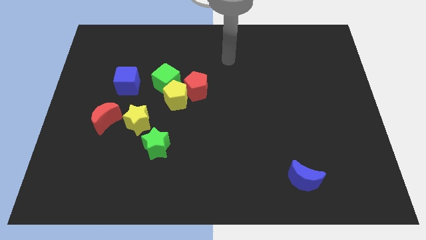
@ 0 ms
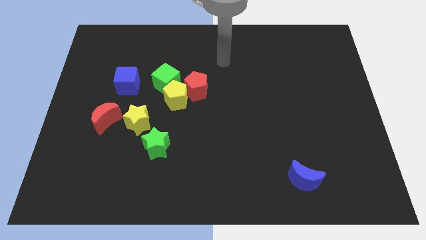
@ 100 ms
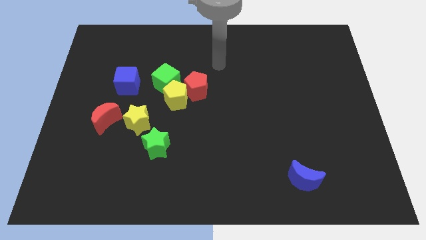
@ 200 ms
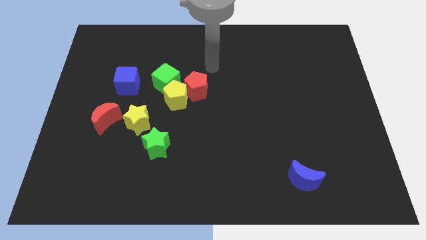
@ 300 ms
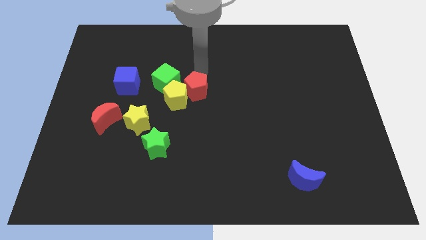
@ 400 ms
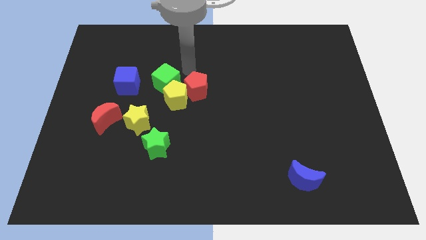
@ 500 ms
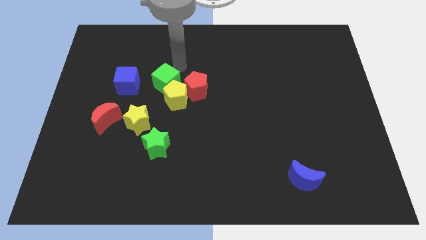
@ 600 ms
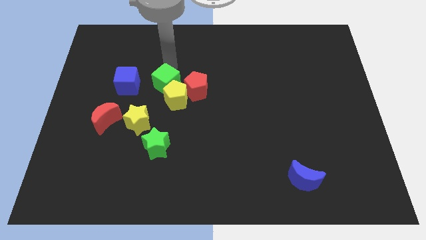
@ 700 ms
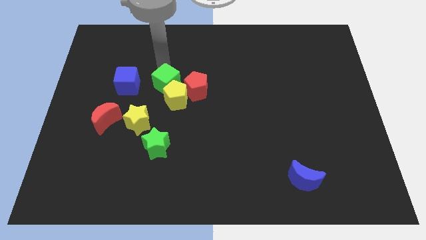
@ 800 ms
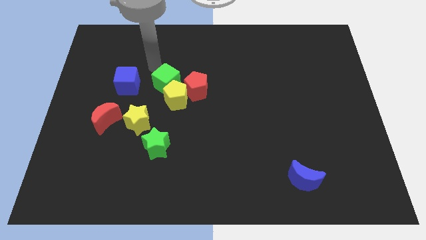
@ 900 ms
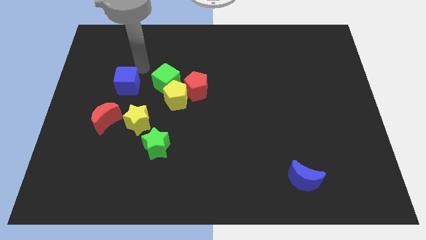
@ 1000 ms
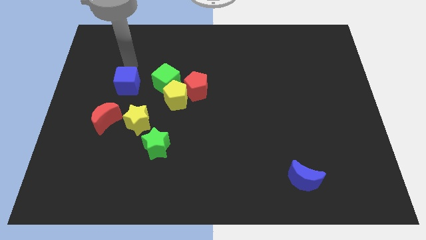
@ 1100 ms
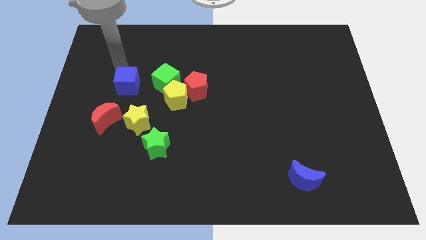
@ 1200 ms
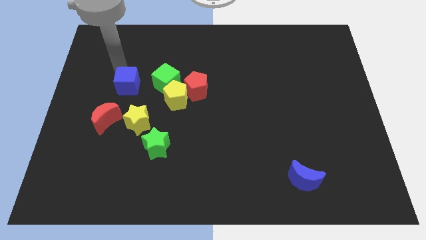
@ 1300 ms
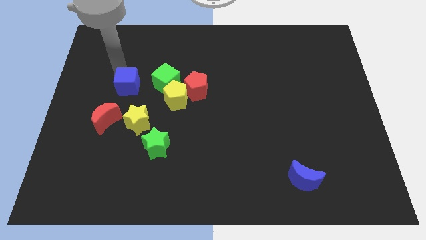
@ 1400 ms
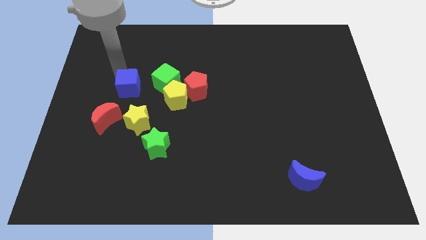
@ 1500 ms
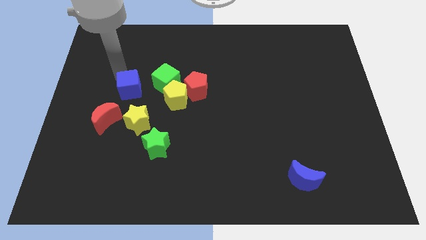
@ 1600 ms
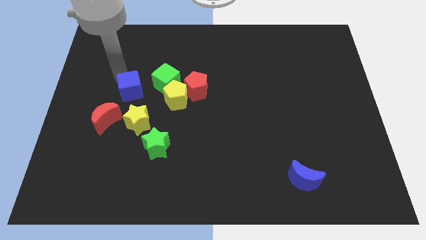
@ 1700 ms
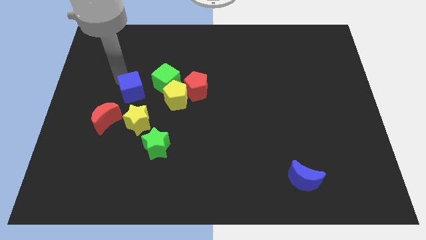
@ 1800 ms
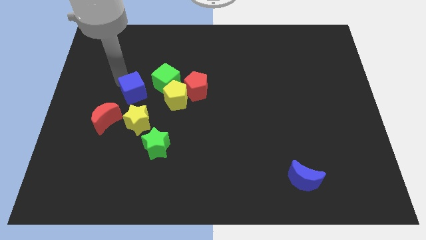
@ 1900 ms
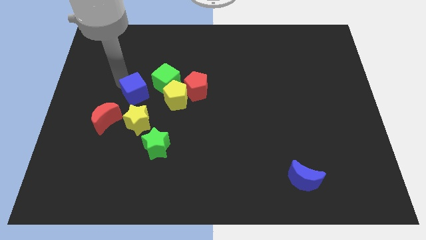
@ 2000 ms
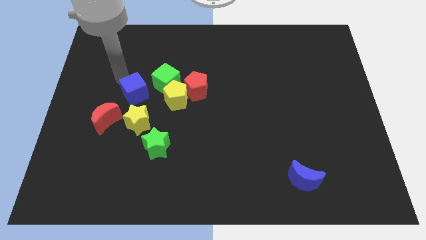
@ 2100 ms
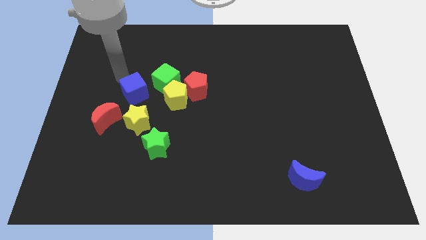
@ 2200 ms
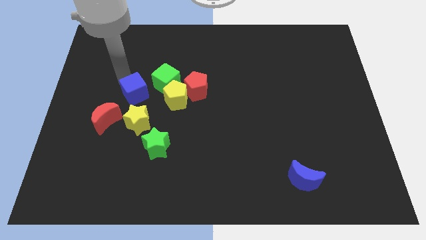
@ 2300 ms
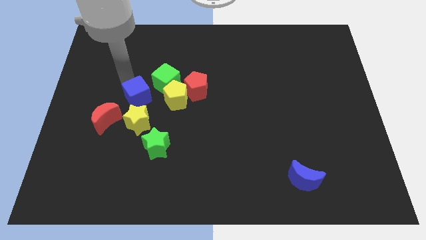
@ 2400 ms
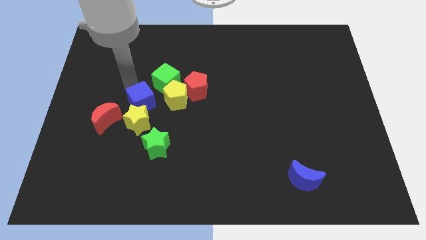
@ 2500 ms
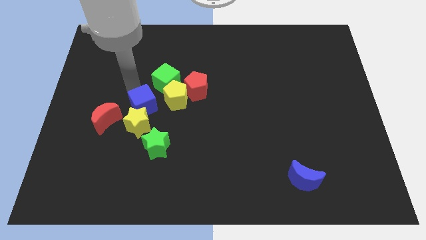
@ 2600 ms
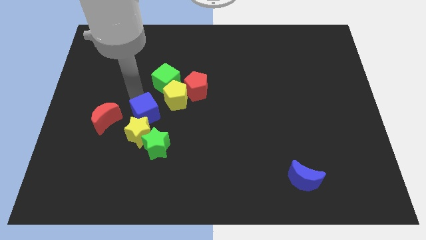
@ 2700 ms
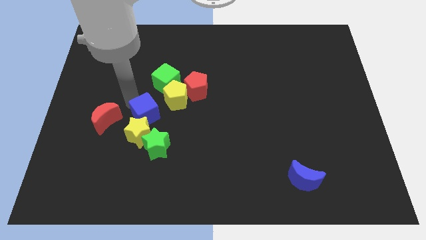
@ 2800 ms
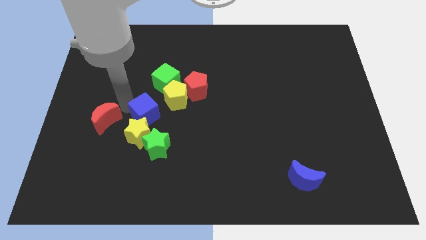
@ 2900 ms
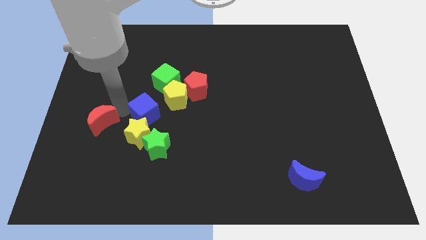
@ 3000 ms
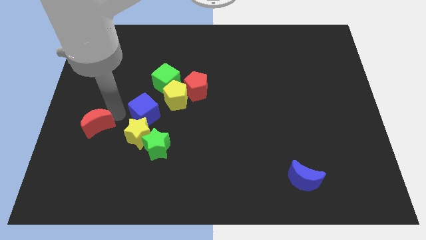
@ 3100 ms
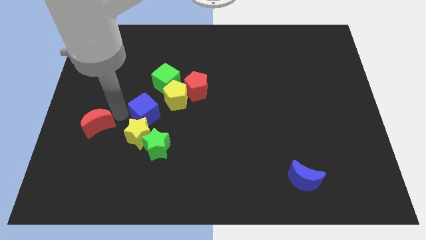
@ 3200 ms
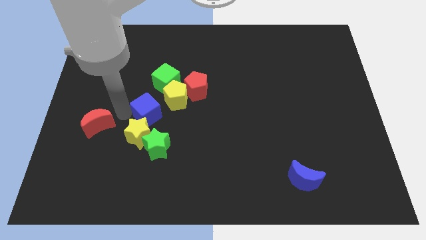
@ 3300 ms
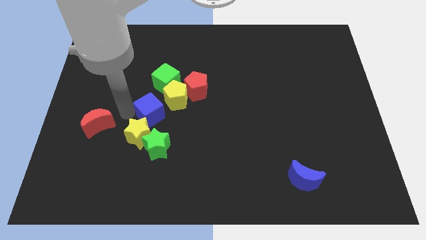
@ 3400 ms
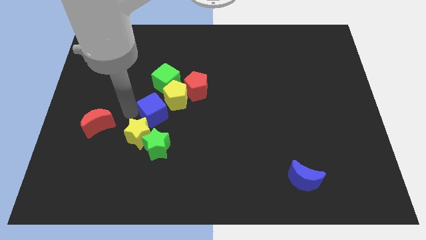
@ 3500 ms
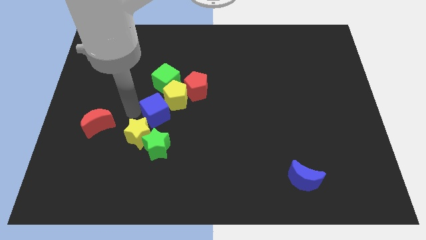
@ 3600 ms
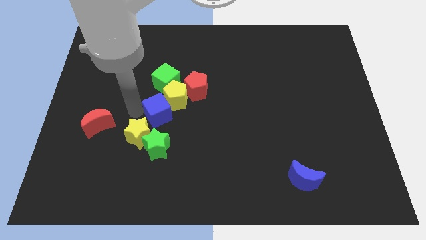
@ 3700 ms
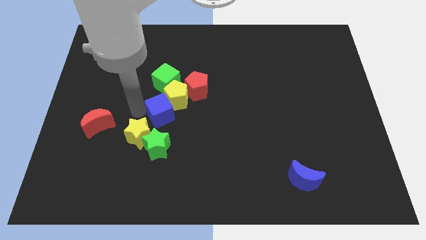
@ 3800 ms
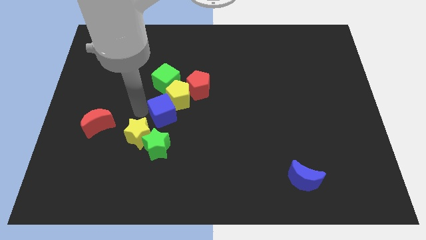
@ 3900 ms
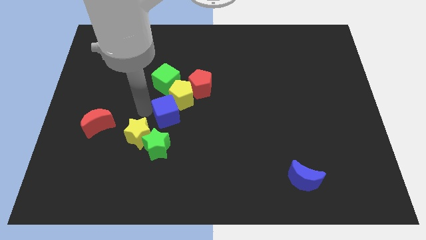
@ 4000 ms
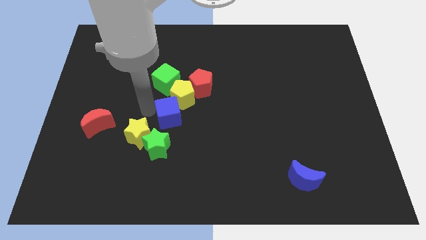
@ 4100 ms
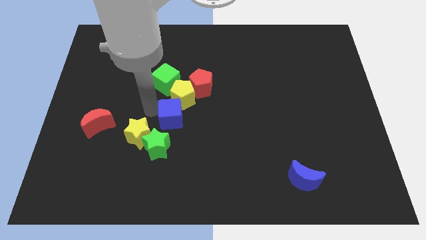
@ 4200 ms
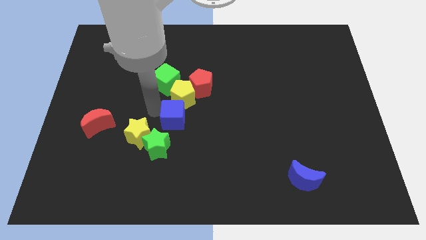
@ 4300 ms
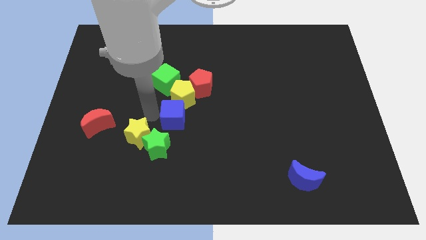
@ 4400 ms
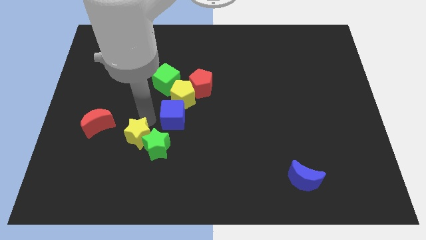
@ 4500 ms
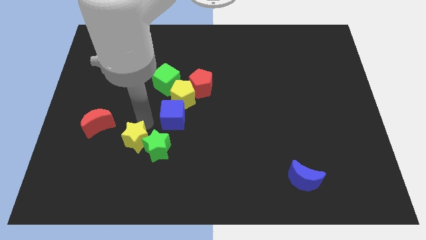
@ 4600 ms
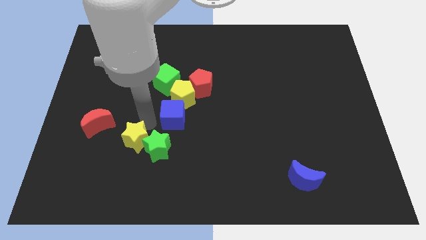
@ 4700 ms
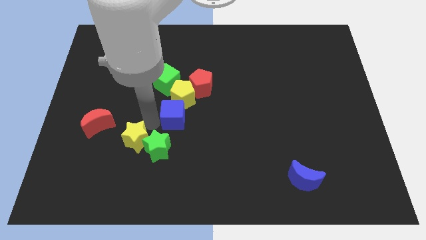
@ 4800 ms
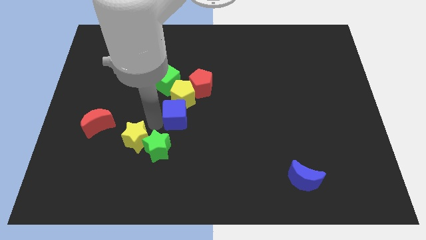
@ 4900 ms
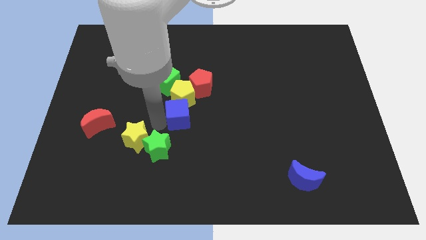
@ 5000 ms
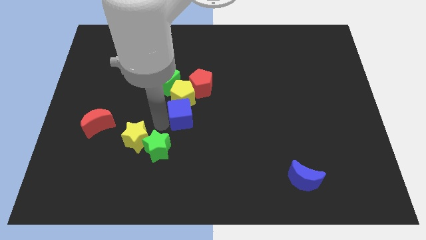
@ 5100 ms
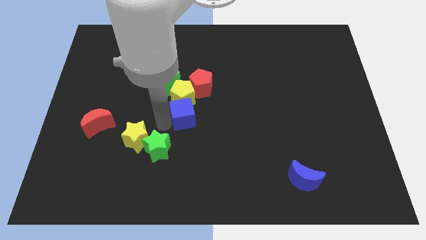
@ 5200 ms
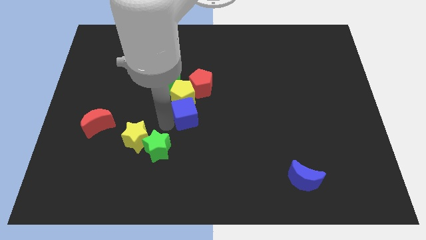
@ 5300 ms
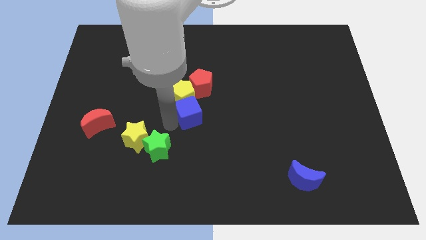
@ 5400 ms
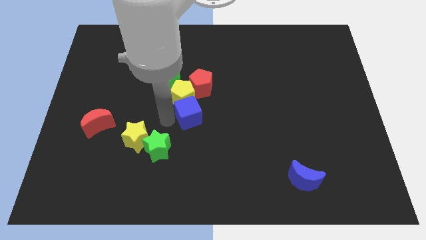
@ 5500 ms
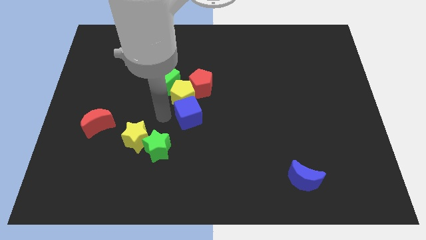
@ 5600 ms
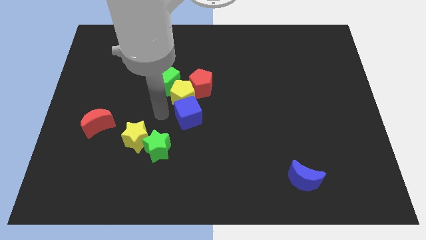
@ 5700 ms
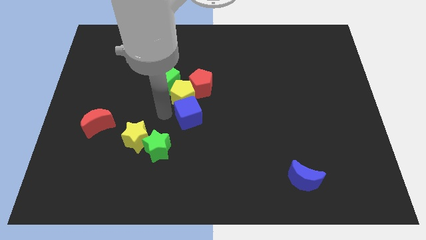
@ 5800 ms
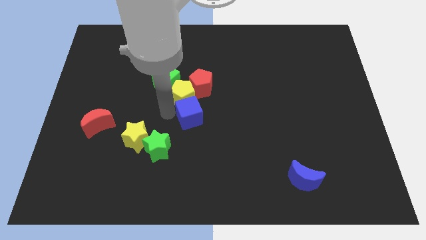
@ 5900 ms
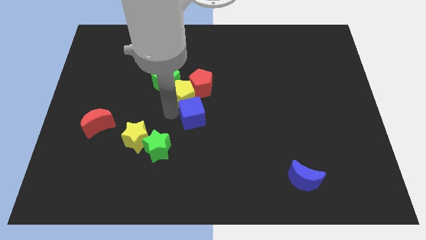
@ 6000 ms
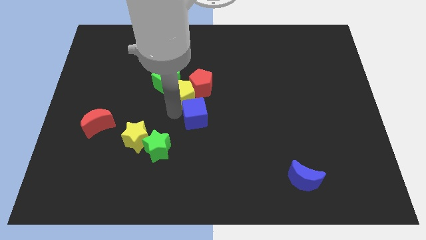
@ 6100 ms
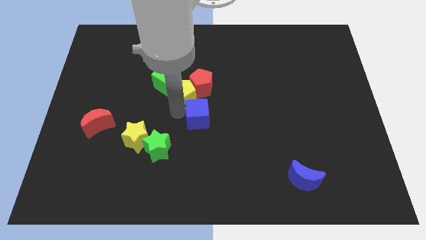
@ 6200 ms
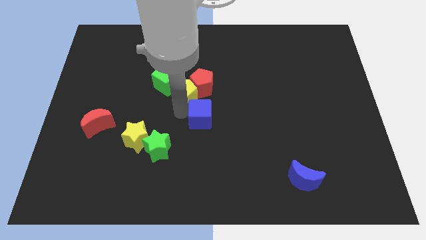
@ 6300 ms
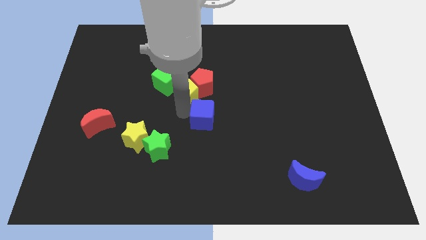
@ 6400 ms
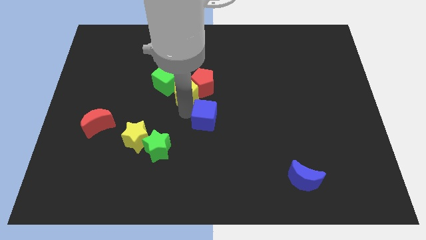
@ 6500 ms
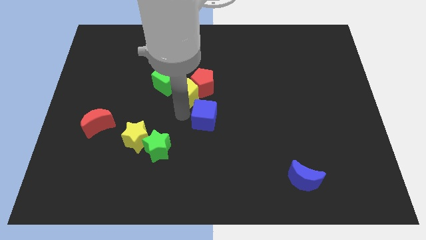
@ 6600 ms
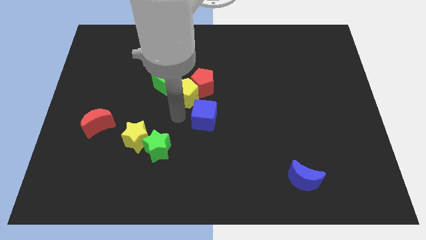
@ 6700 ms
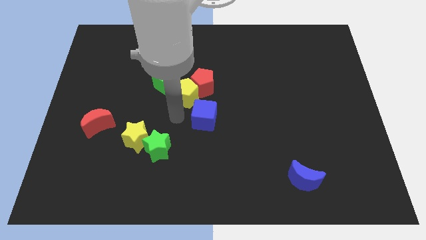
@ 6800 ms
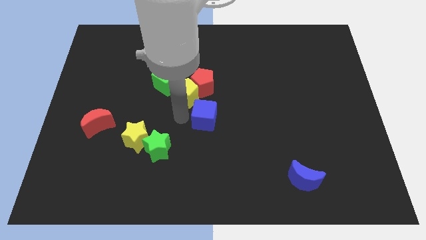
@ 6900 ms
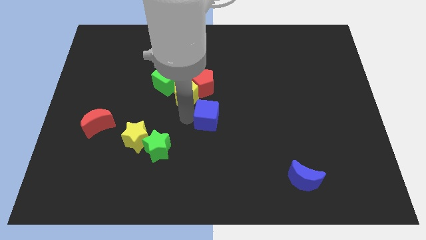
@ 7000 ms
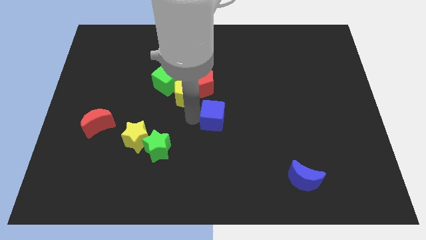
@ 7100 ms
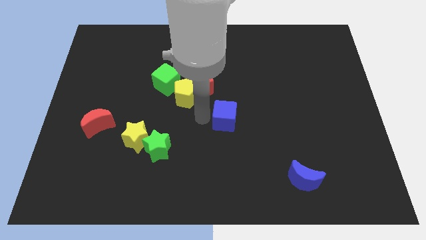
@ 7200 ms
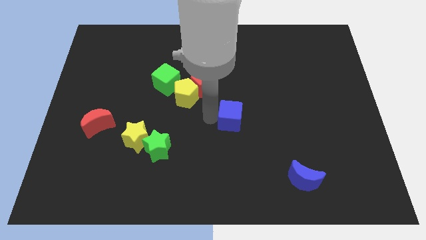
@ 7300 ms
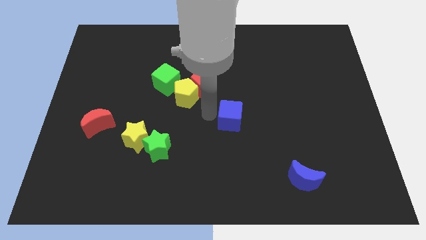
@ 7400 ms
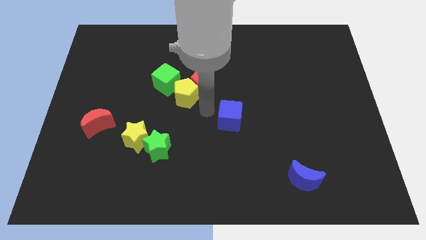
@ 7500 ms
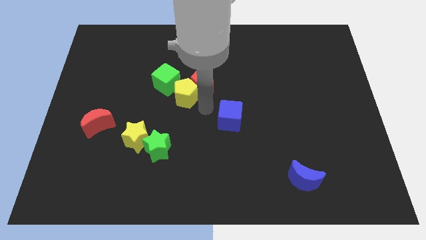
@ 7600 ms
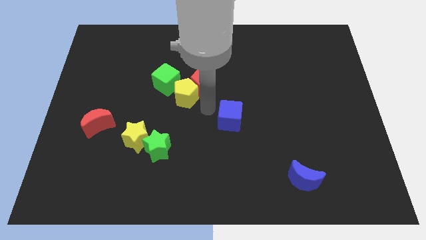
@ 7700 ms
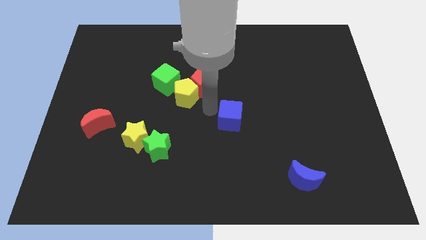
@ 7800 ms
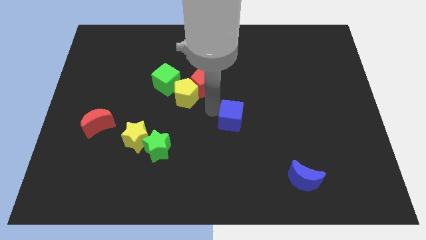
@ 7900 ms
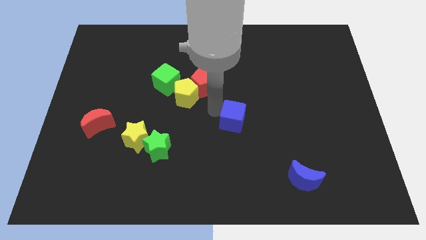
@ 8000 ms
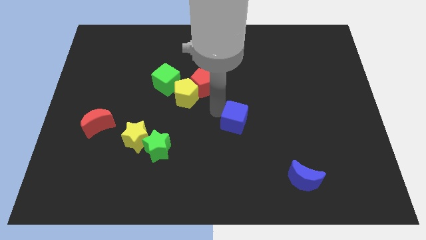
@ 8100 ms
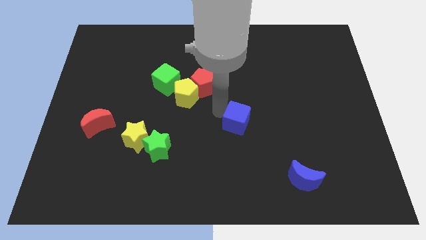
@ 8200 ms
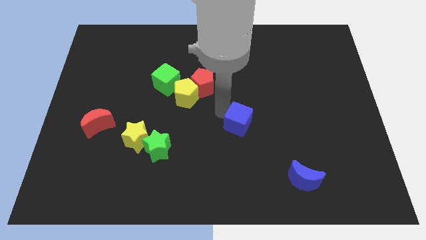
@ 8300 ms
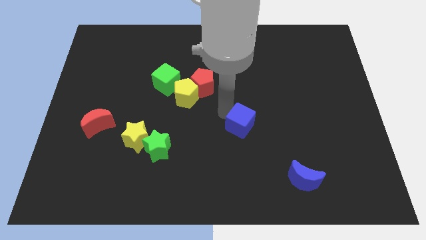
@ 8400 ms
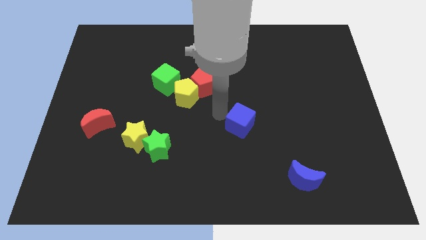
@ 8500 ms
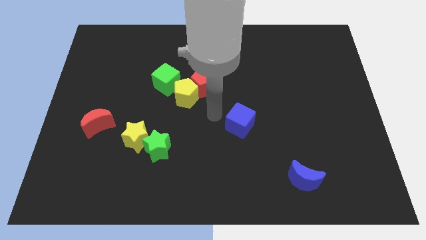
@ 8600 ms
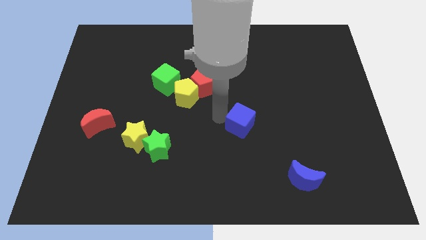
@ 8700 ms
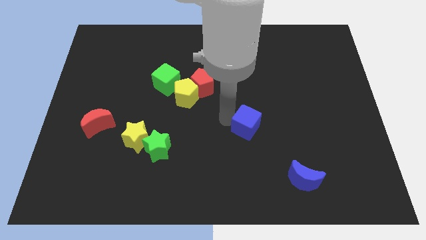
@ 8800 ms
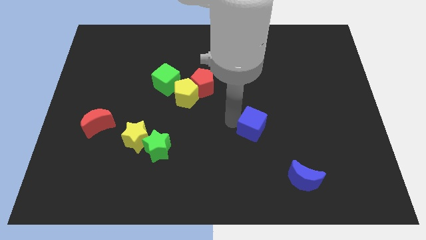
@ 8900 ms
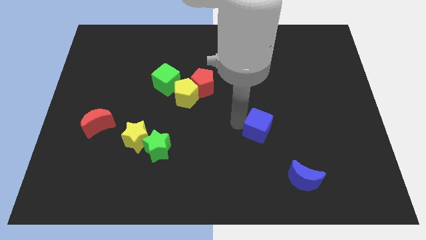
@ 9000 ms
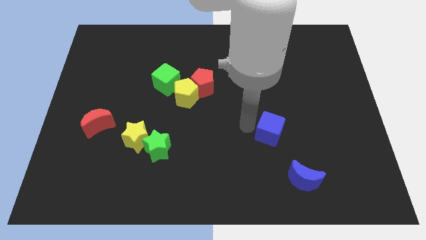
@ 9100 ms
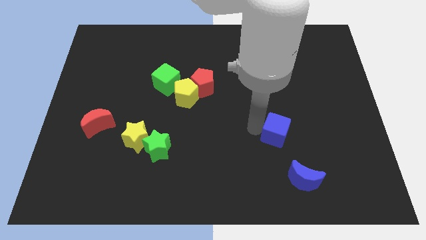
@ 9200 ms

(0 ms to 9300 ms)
move the blue cube to the top side of the blue moon
